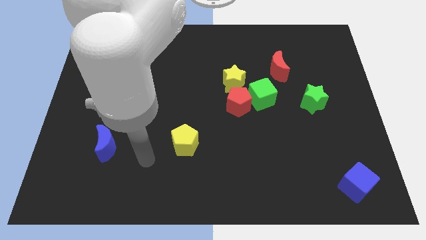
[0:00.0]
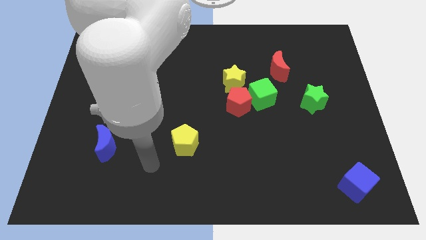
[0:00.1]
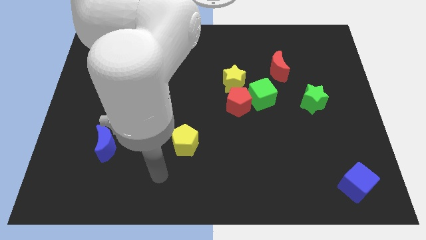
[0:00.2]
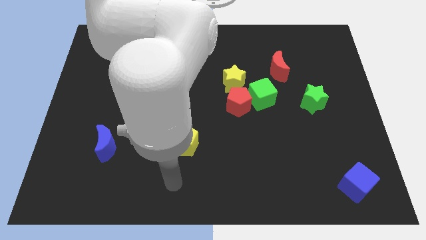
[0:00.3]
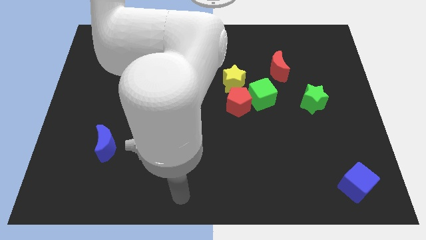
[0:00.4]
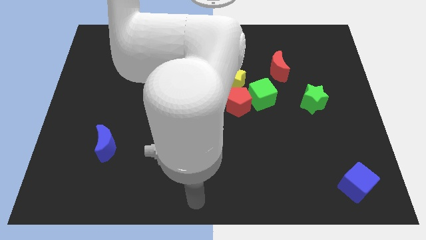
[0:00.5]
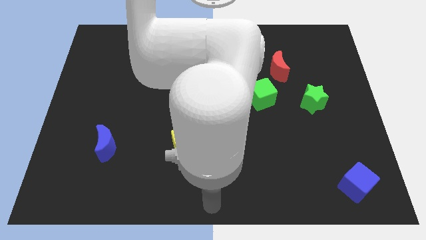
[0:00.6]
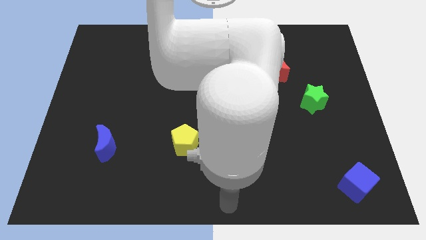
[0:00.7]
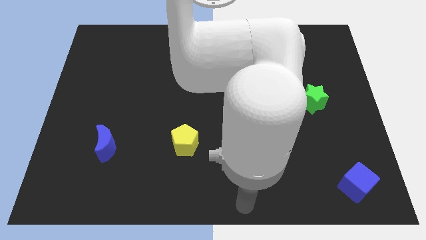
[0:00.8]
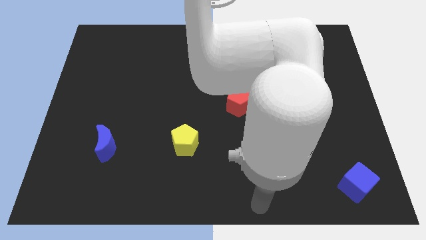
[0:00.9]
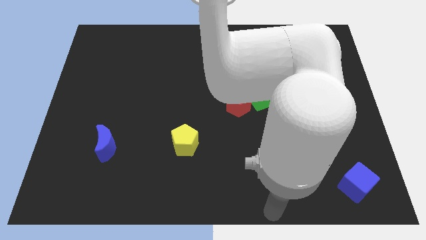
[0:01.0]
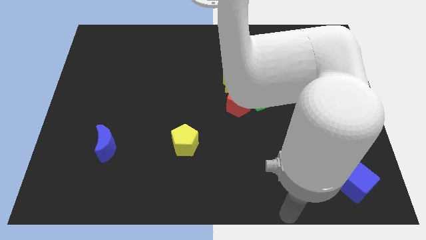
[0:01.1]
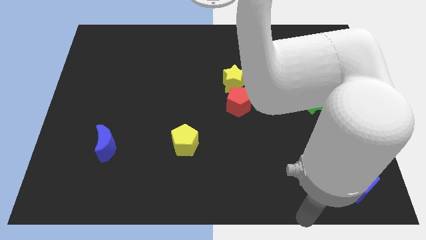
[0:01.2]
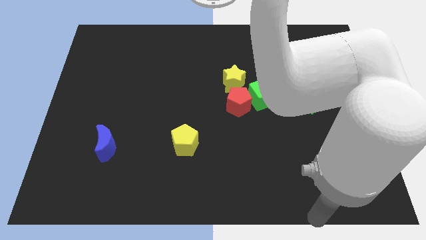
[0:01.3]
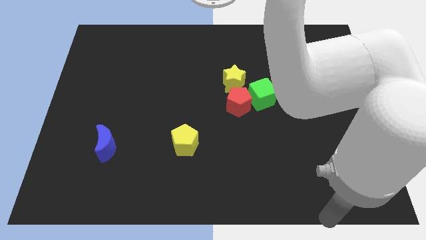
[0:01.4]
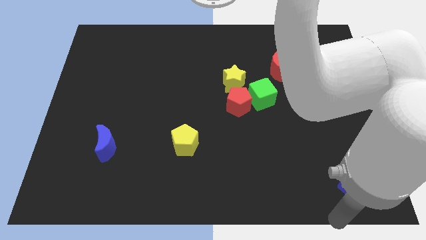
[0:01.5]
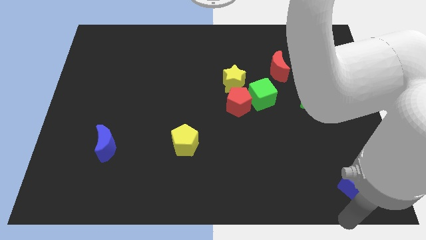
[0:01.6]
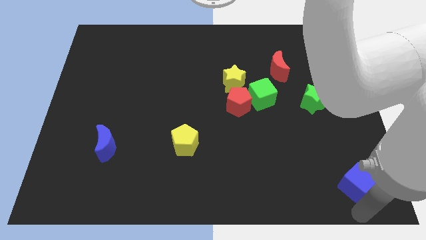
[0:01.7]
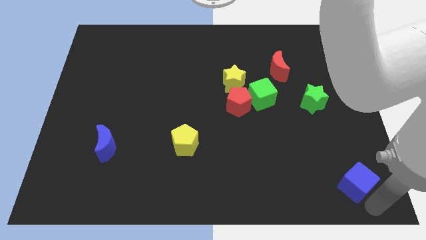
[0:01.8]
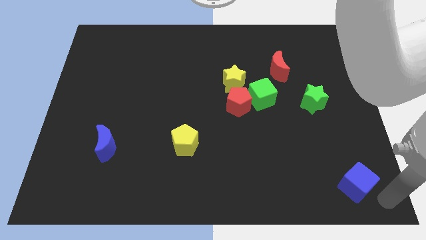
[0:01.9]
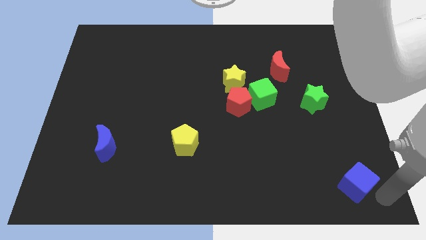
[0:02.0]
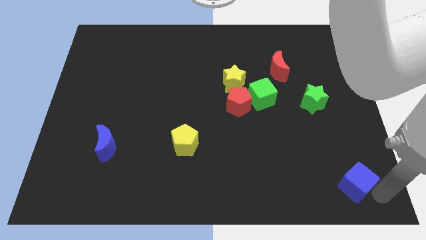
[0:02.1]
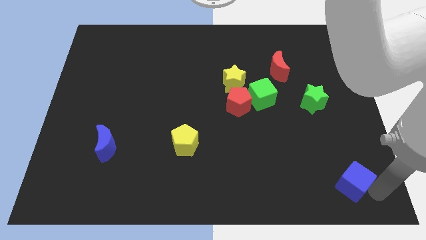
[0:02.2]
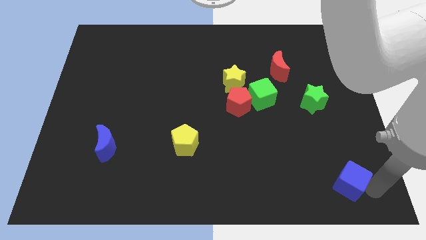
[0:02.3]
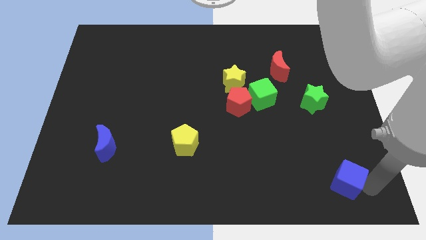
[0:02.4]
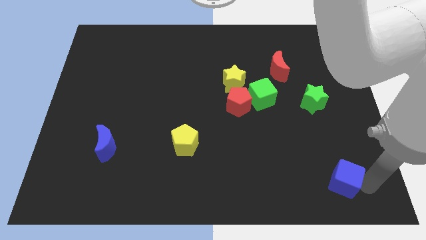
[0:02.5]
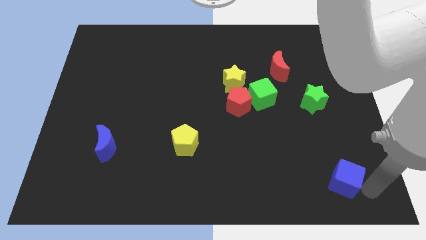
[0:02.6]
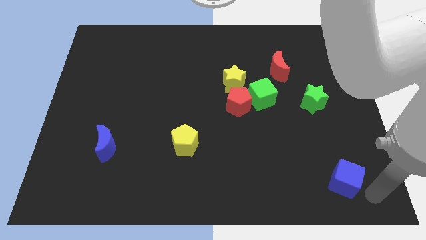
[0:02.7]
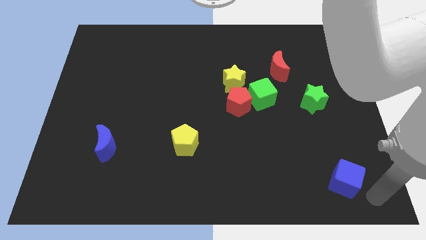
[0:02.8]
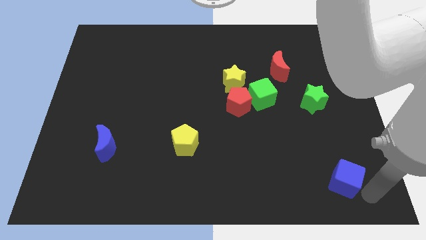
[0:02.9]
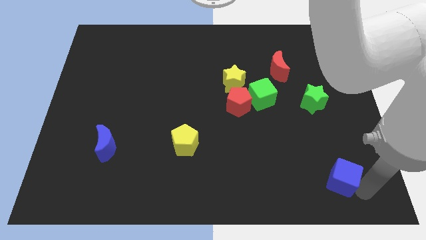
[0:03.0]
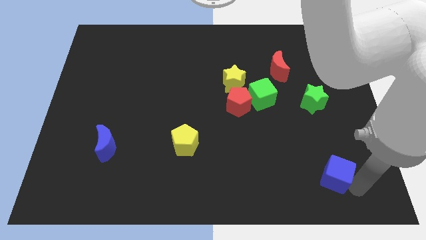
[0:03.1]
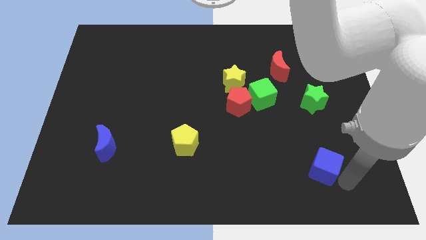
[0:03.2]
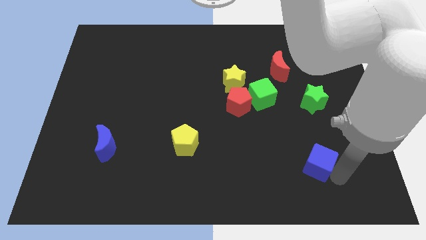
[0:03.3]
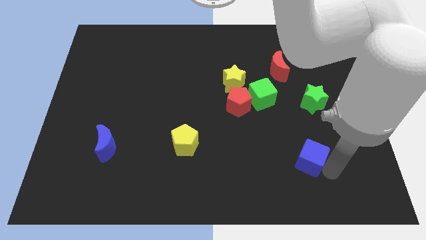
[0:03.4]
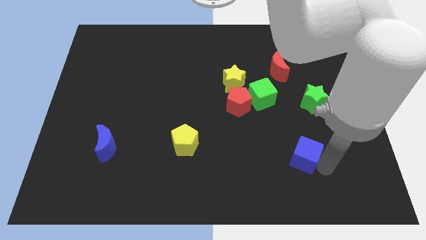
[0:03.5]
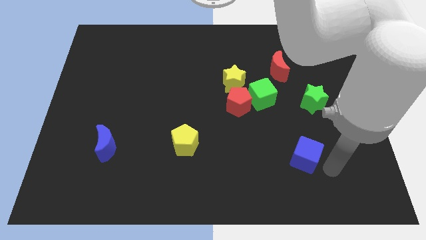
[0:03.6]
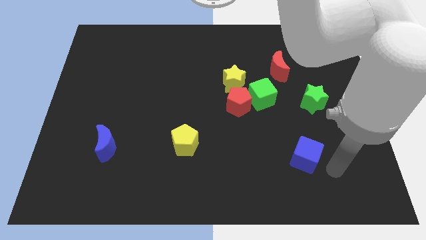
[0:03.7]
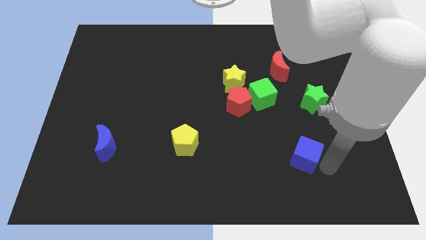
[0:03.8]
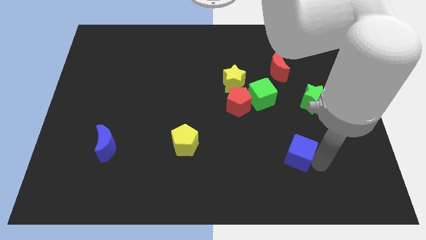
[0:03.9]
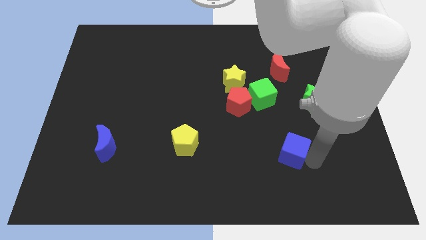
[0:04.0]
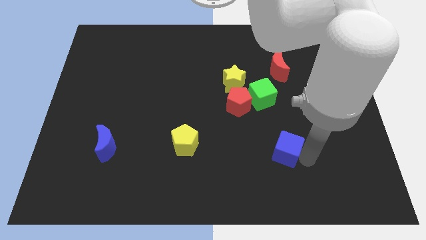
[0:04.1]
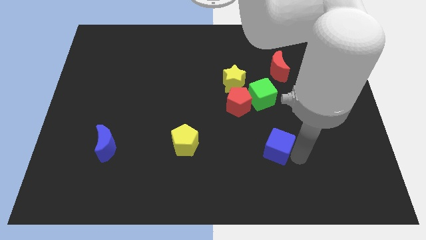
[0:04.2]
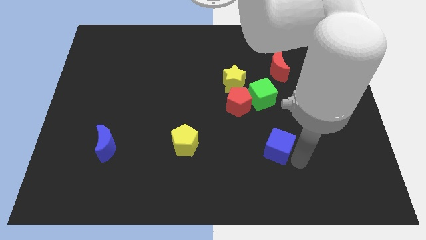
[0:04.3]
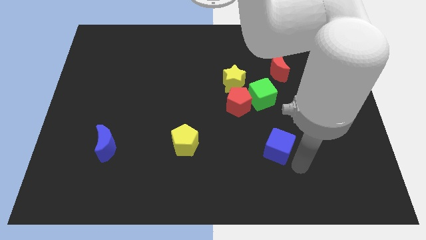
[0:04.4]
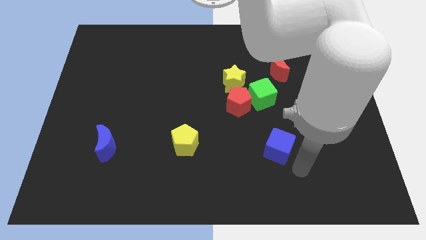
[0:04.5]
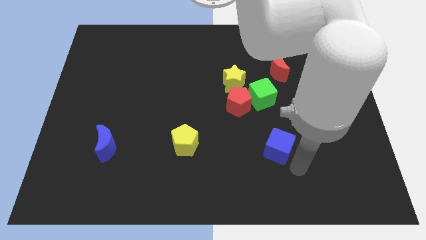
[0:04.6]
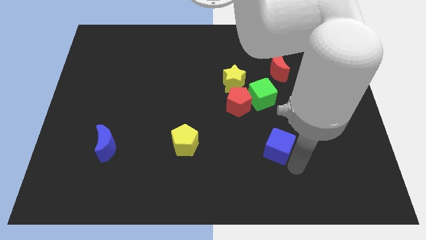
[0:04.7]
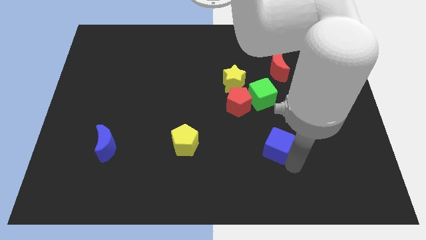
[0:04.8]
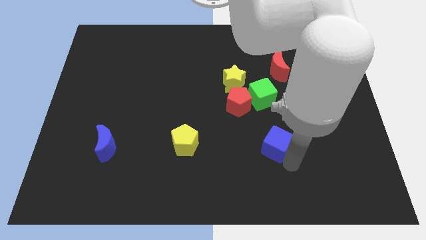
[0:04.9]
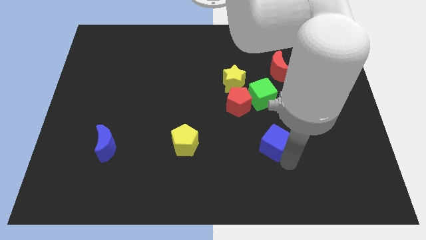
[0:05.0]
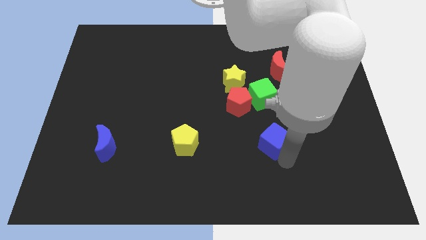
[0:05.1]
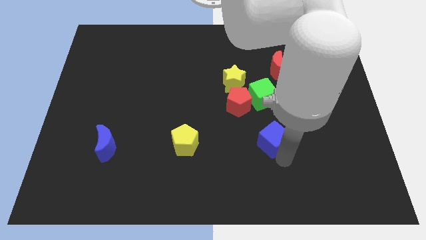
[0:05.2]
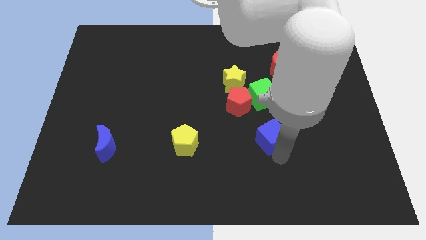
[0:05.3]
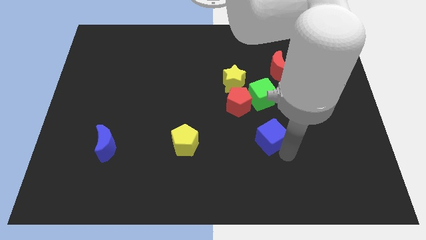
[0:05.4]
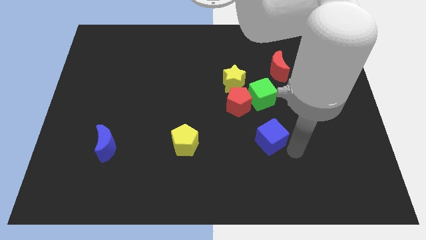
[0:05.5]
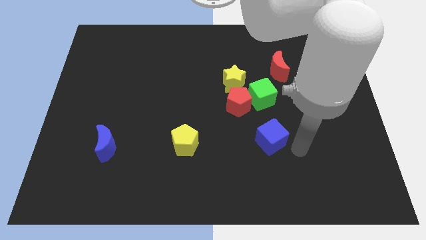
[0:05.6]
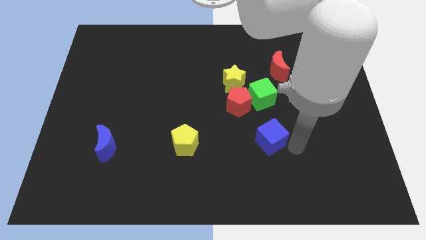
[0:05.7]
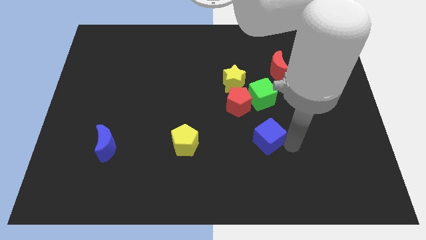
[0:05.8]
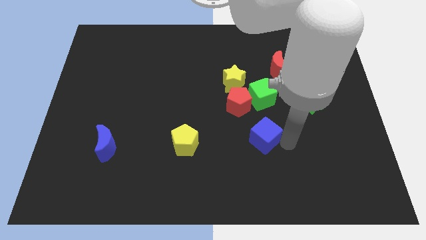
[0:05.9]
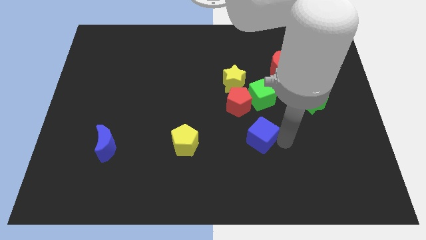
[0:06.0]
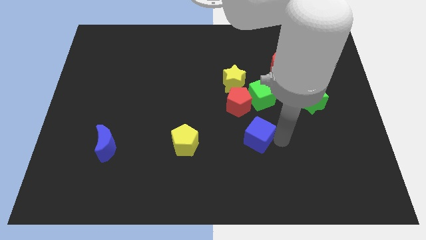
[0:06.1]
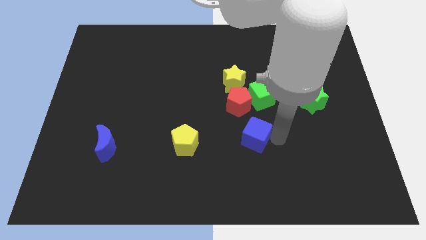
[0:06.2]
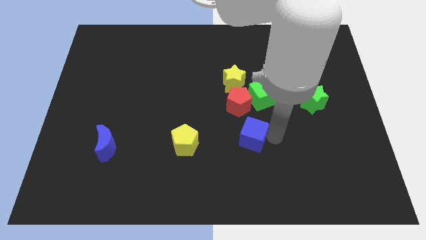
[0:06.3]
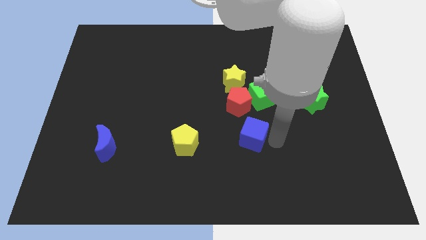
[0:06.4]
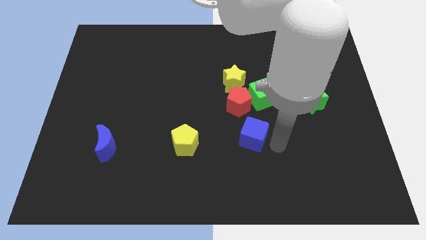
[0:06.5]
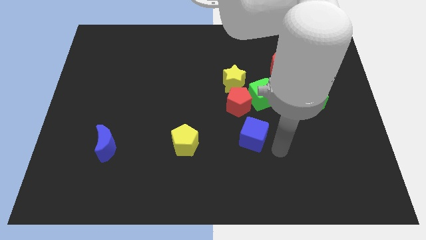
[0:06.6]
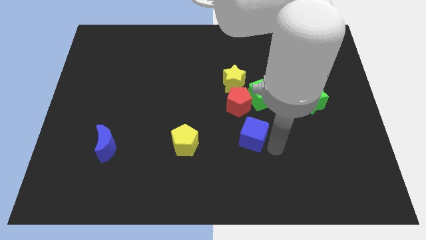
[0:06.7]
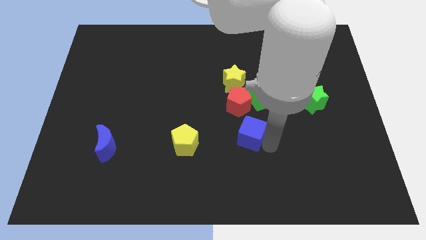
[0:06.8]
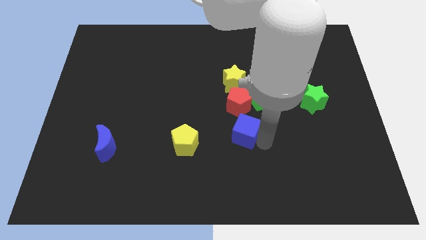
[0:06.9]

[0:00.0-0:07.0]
put the blue cube to the middle of the board
